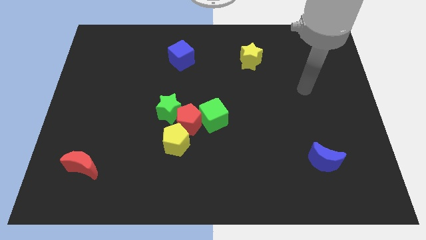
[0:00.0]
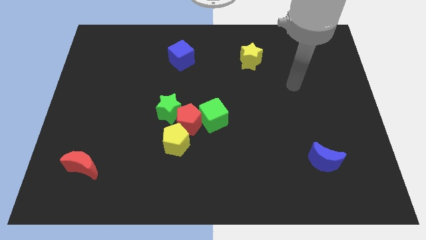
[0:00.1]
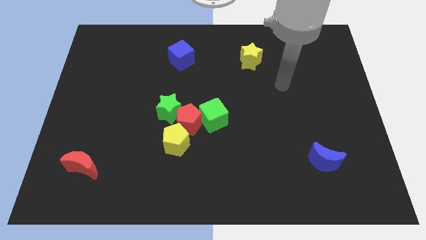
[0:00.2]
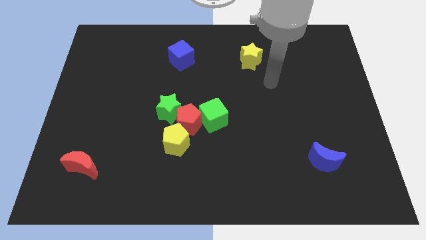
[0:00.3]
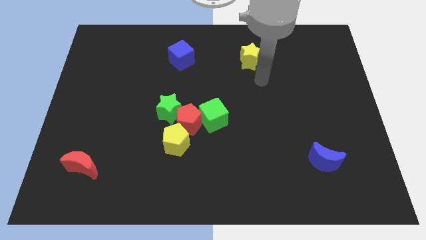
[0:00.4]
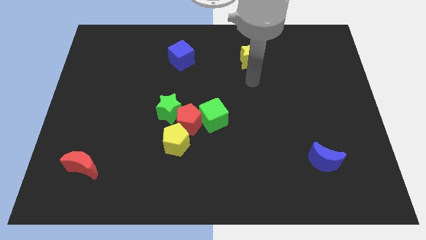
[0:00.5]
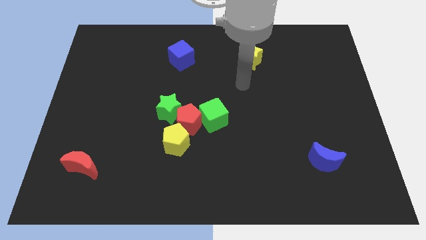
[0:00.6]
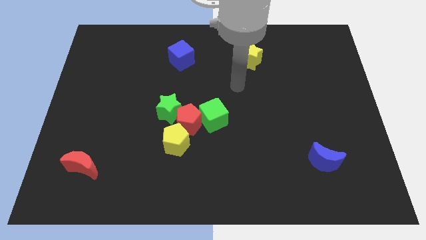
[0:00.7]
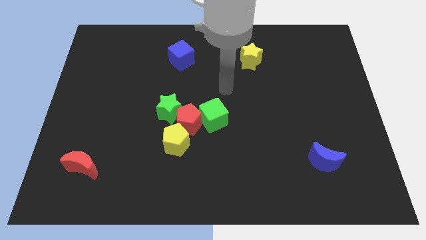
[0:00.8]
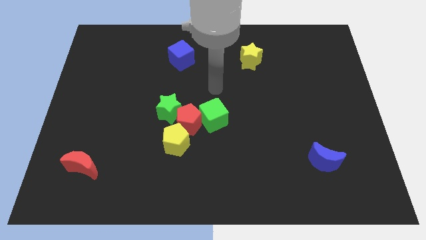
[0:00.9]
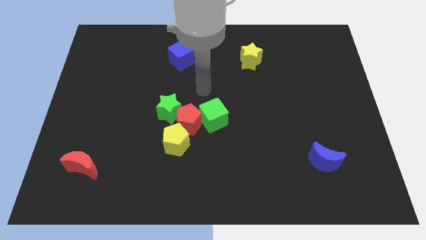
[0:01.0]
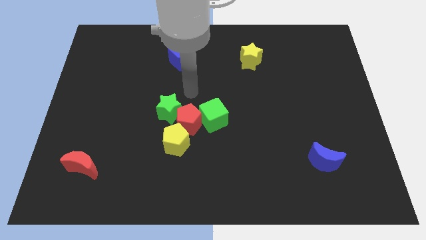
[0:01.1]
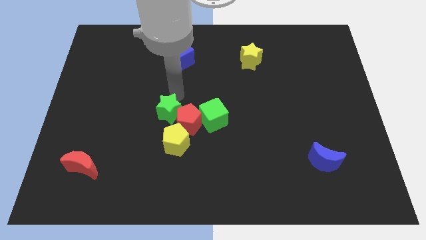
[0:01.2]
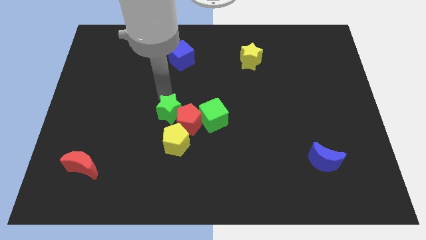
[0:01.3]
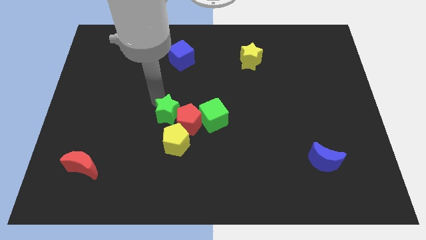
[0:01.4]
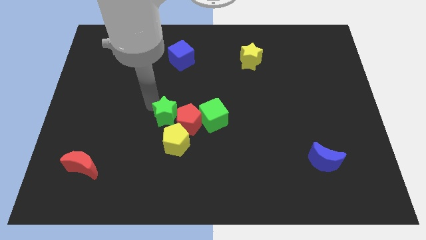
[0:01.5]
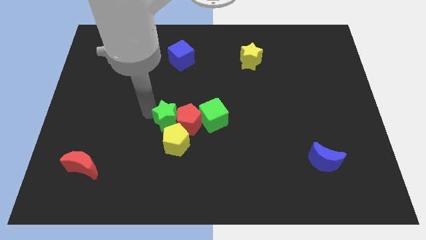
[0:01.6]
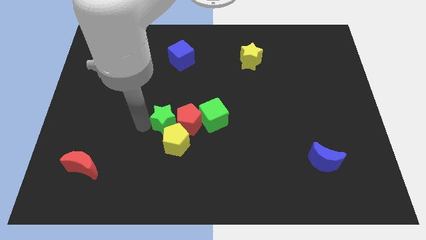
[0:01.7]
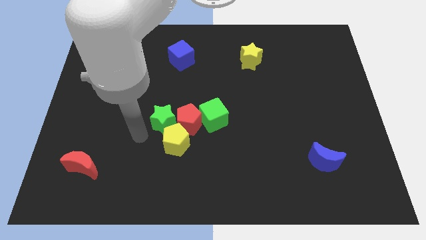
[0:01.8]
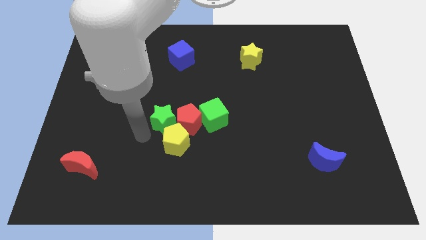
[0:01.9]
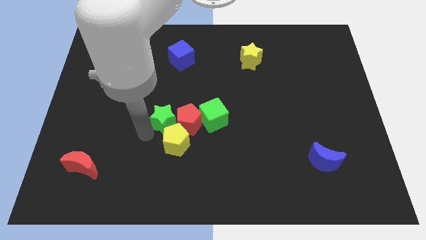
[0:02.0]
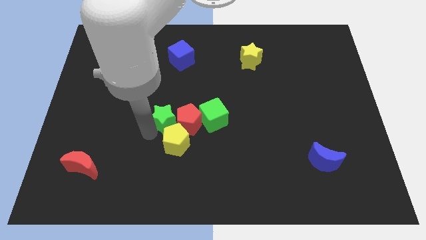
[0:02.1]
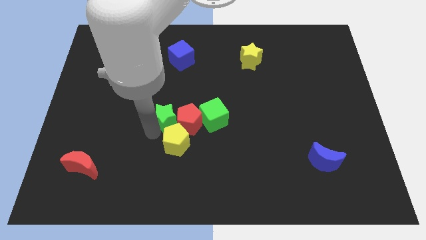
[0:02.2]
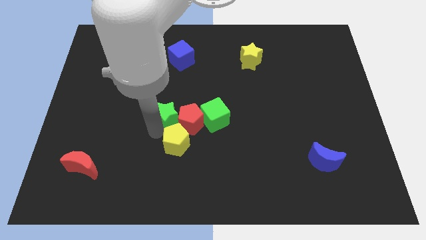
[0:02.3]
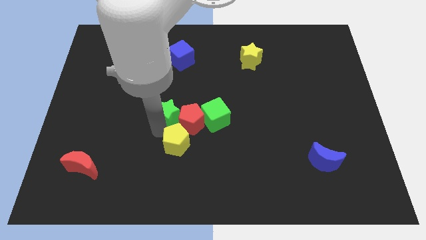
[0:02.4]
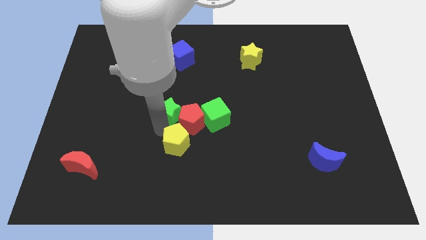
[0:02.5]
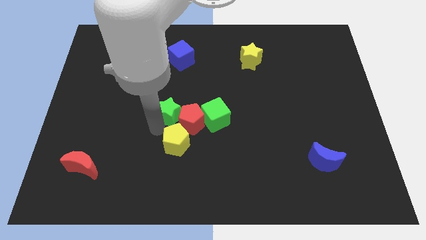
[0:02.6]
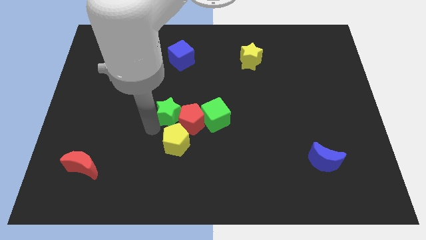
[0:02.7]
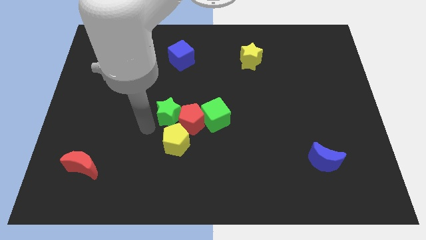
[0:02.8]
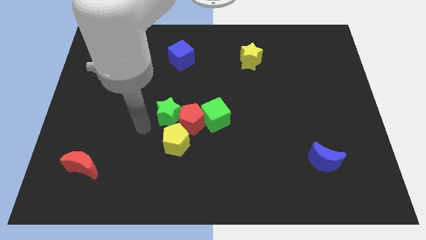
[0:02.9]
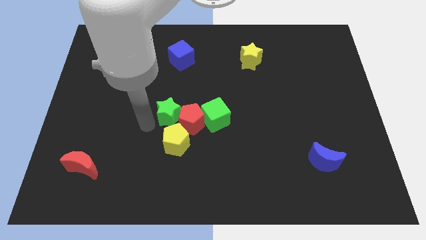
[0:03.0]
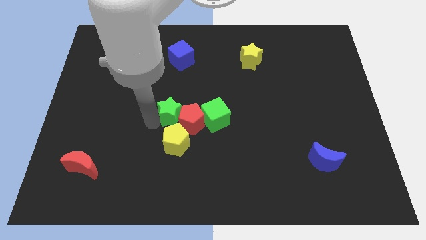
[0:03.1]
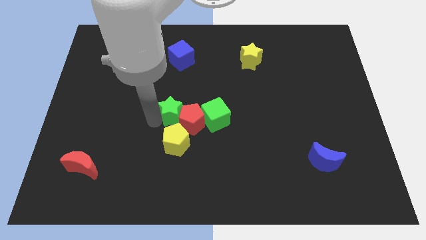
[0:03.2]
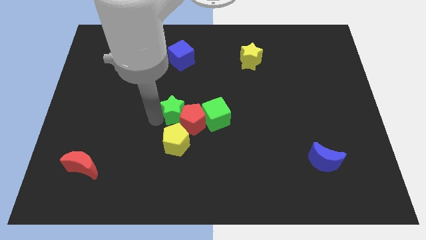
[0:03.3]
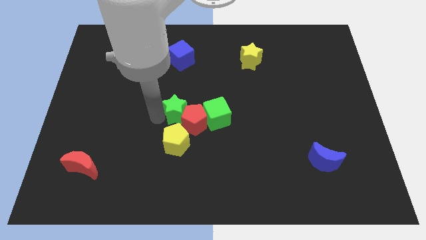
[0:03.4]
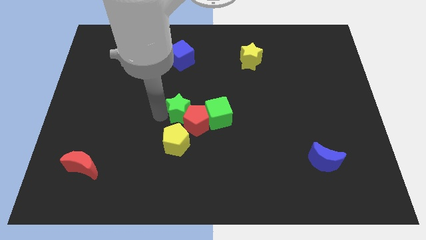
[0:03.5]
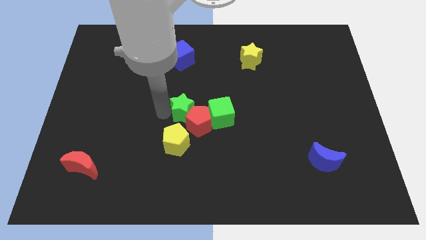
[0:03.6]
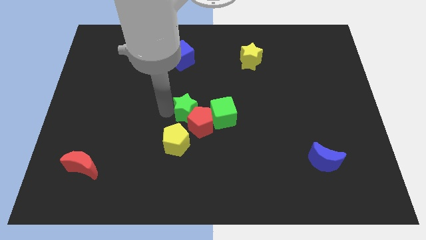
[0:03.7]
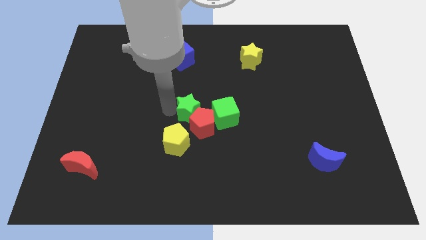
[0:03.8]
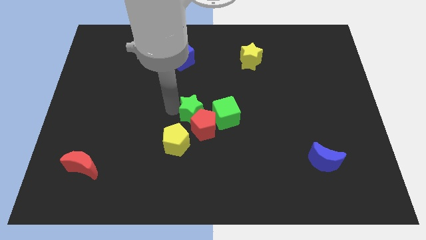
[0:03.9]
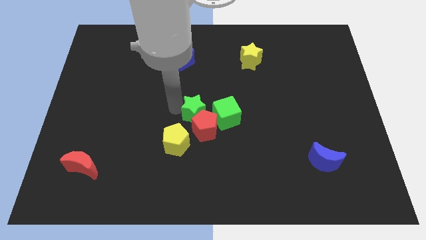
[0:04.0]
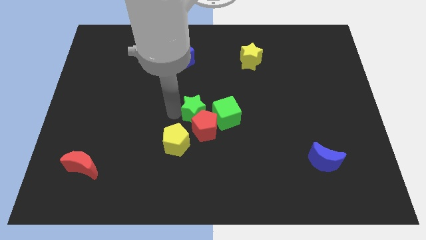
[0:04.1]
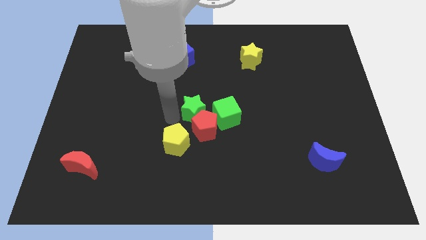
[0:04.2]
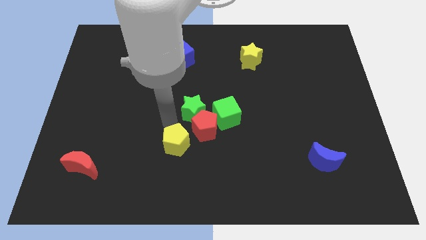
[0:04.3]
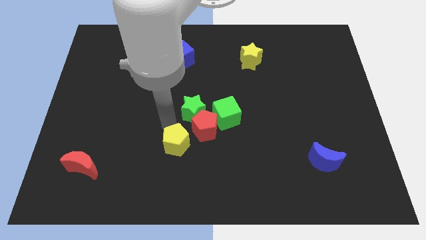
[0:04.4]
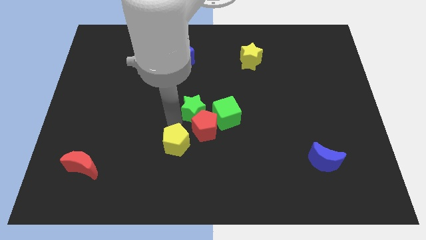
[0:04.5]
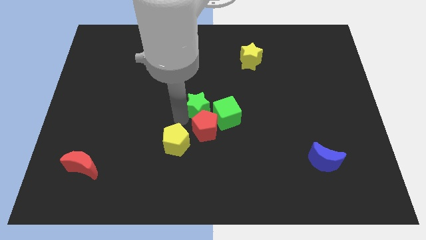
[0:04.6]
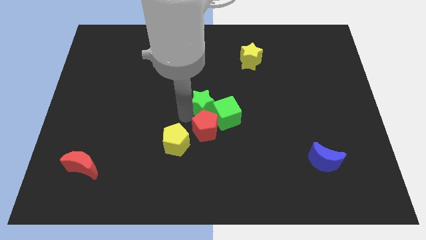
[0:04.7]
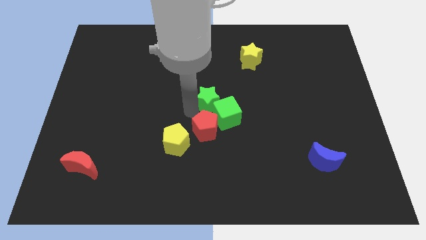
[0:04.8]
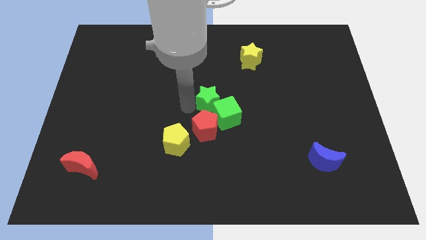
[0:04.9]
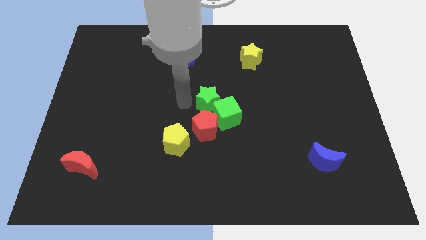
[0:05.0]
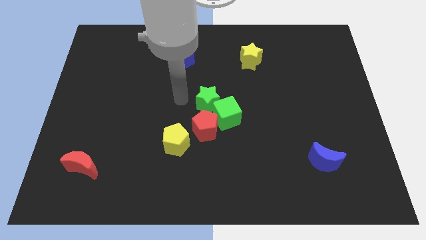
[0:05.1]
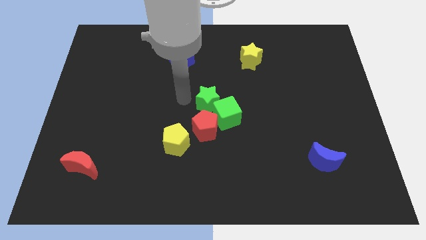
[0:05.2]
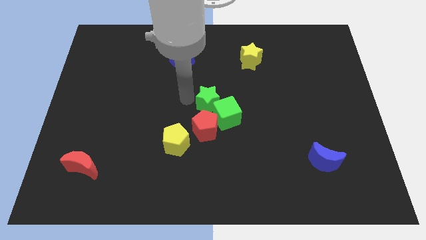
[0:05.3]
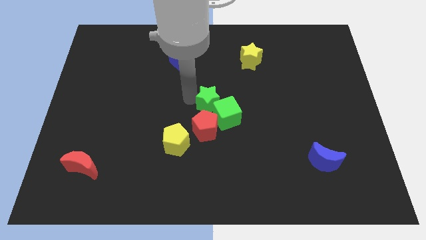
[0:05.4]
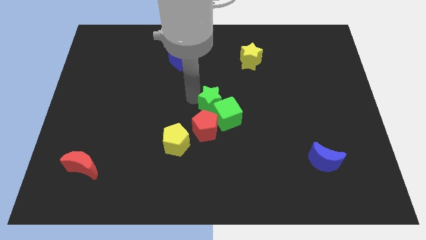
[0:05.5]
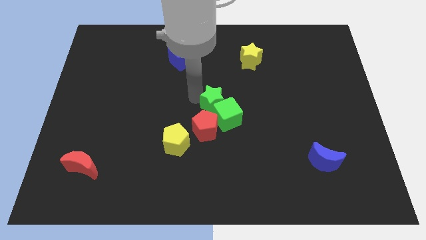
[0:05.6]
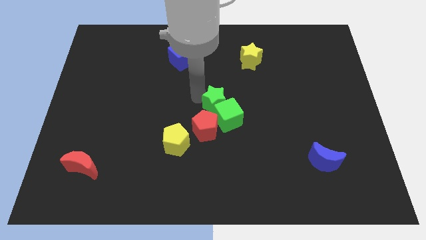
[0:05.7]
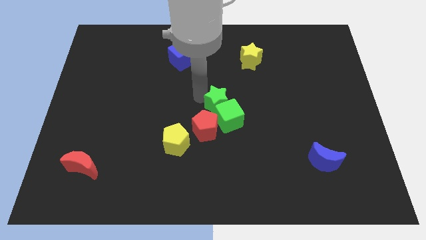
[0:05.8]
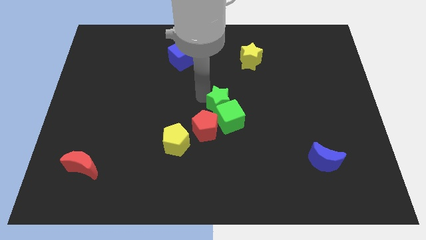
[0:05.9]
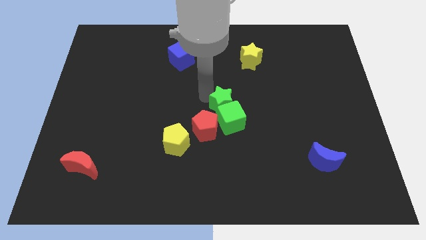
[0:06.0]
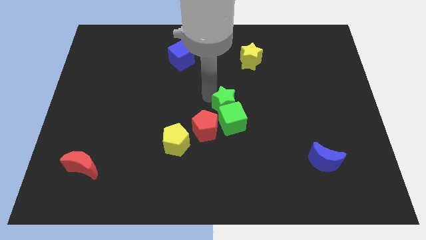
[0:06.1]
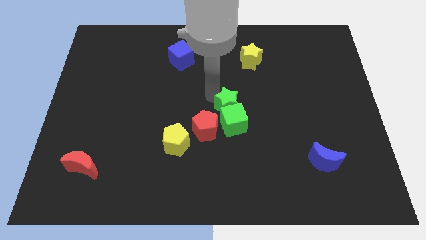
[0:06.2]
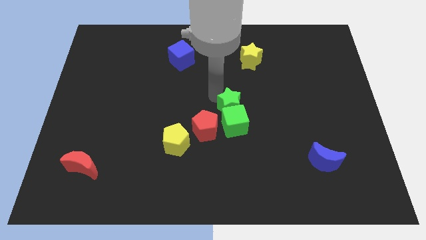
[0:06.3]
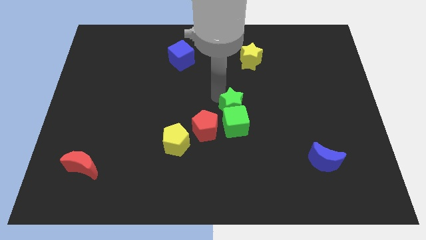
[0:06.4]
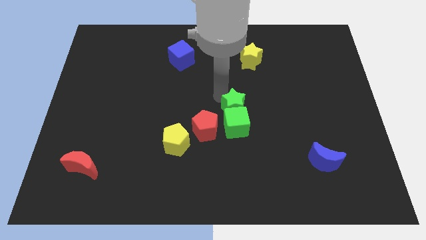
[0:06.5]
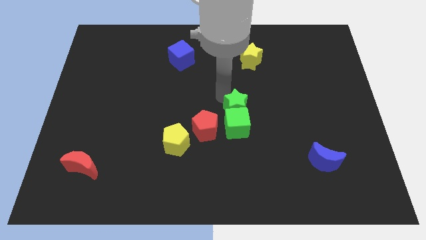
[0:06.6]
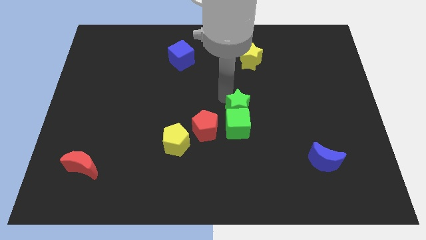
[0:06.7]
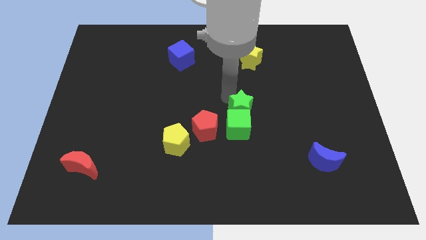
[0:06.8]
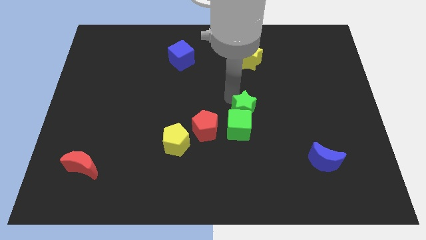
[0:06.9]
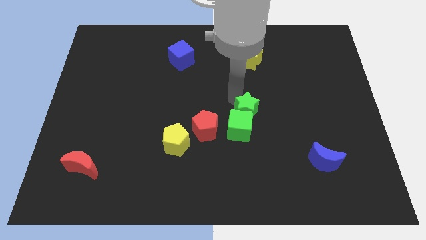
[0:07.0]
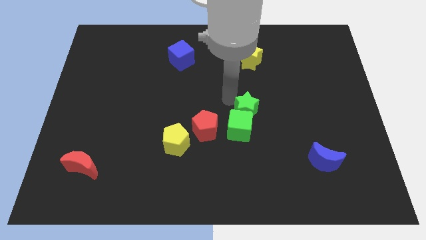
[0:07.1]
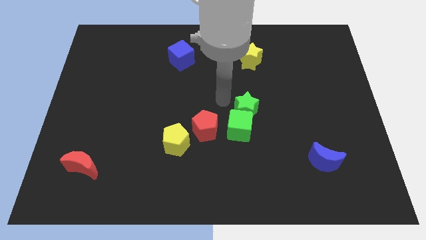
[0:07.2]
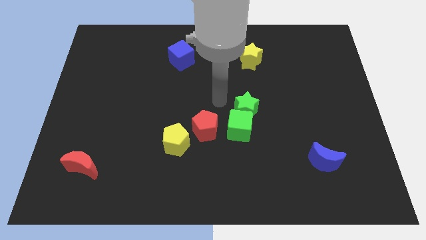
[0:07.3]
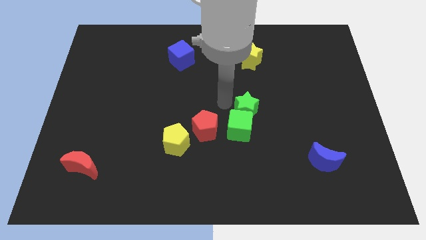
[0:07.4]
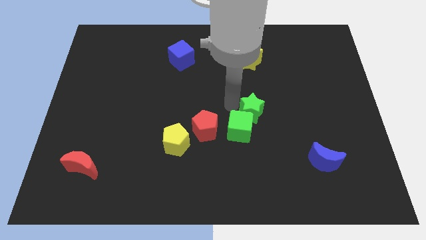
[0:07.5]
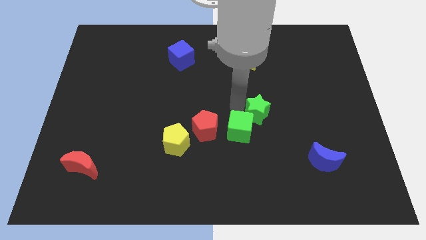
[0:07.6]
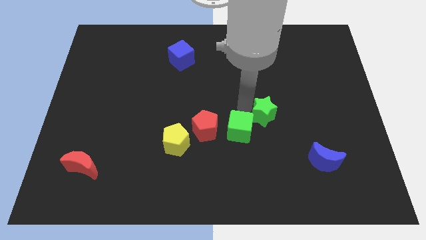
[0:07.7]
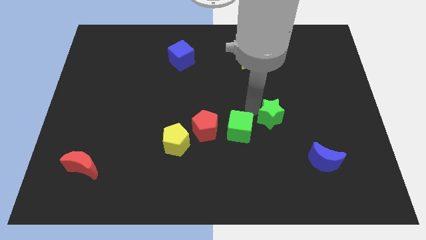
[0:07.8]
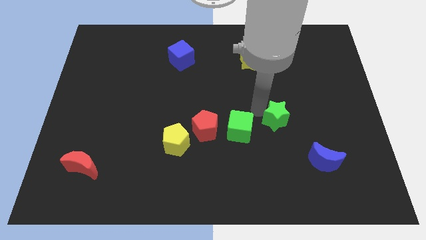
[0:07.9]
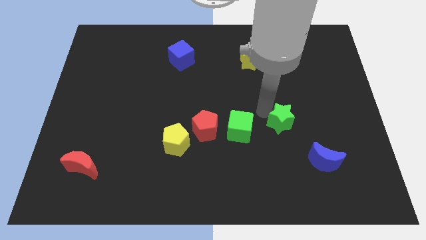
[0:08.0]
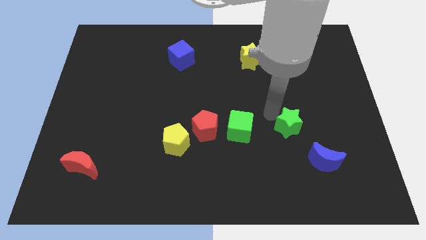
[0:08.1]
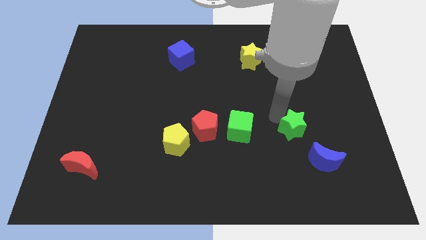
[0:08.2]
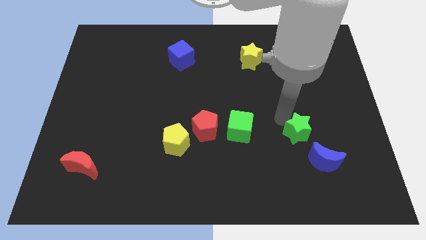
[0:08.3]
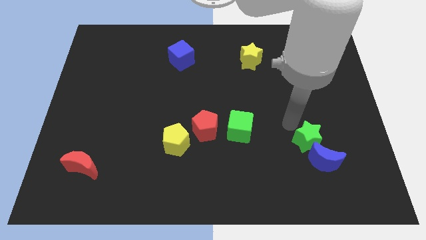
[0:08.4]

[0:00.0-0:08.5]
slide the green star to the blue moon
